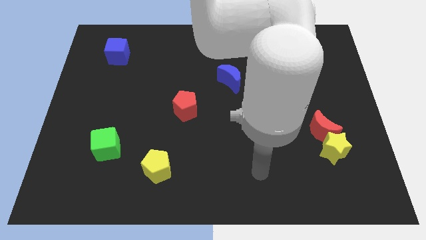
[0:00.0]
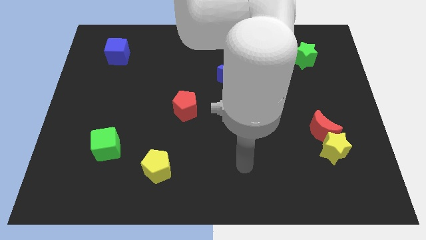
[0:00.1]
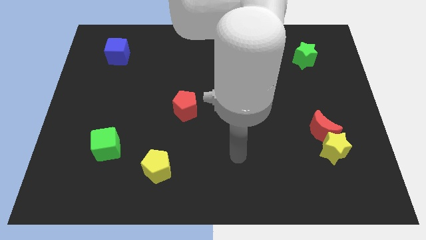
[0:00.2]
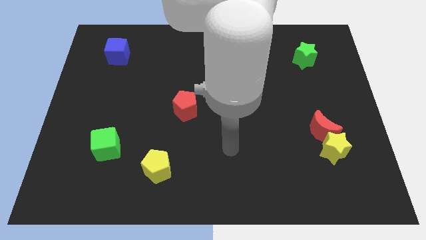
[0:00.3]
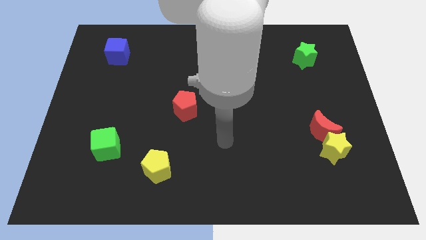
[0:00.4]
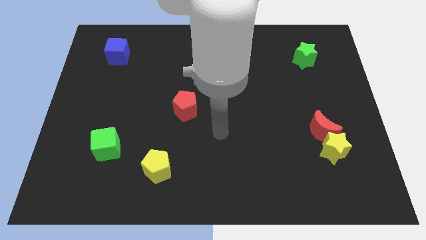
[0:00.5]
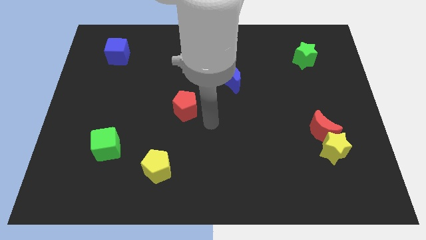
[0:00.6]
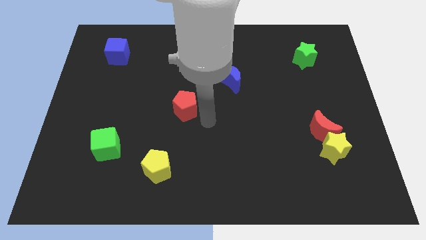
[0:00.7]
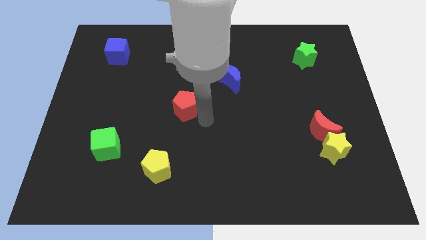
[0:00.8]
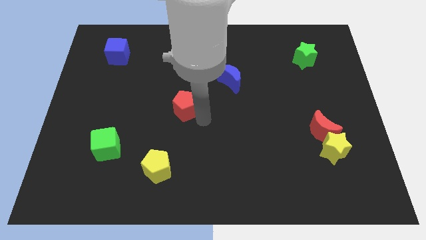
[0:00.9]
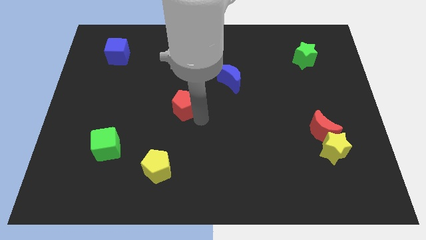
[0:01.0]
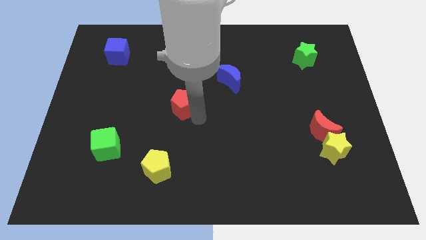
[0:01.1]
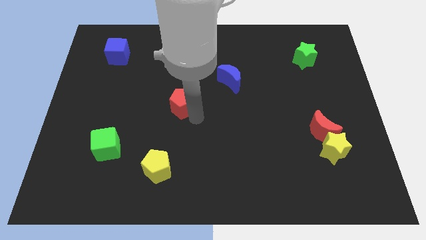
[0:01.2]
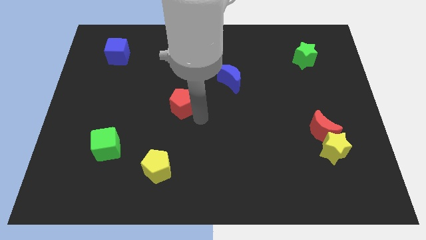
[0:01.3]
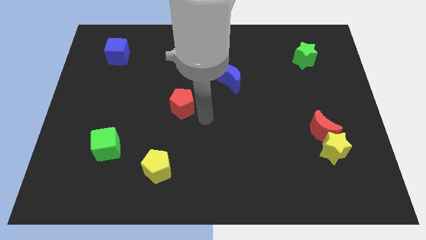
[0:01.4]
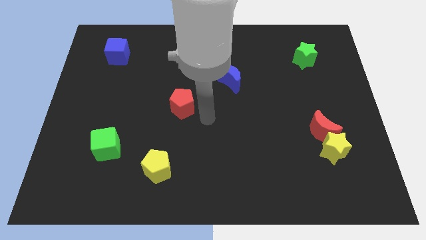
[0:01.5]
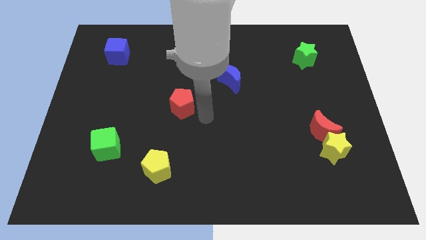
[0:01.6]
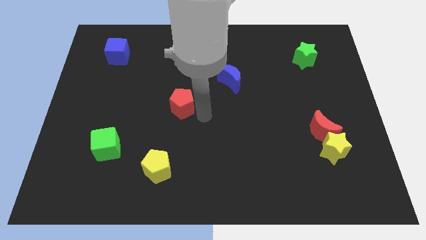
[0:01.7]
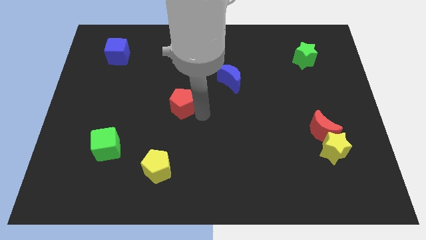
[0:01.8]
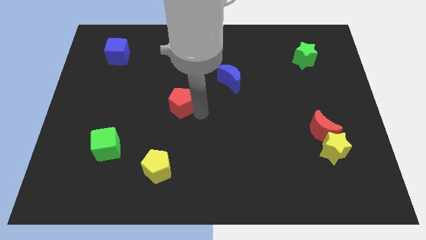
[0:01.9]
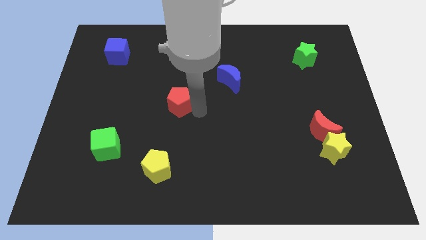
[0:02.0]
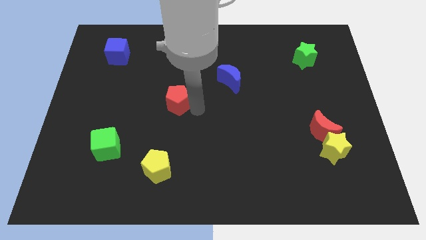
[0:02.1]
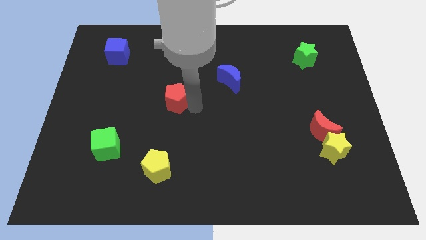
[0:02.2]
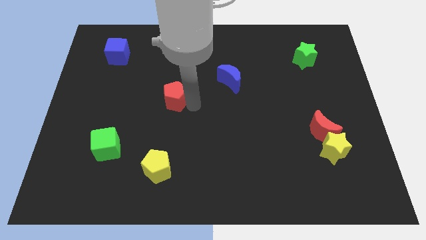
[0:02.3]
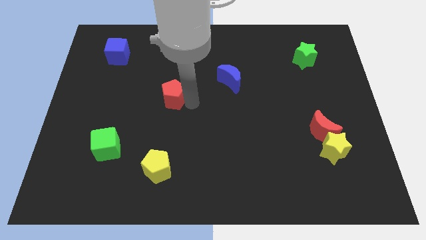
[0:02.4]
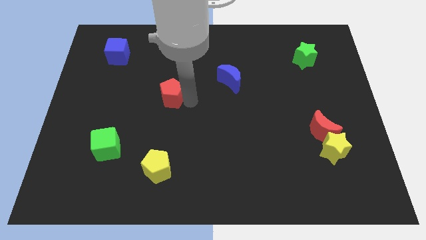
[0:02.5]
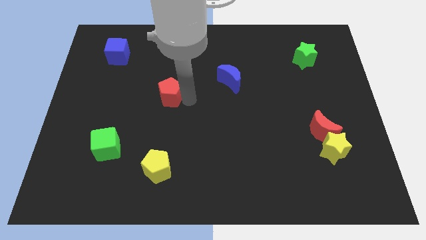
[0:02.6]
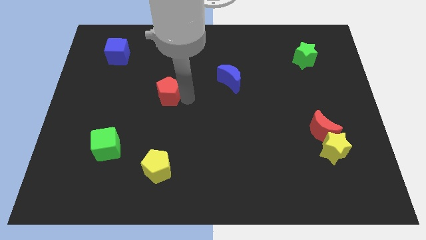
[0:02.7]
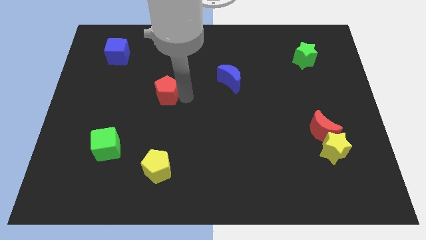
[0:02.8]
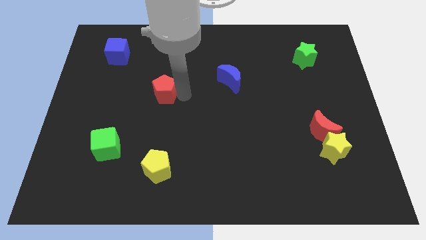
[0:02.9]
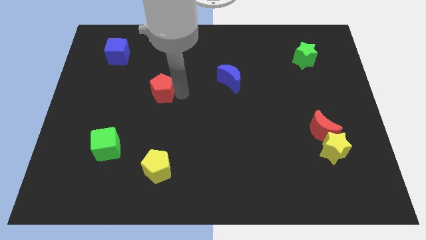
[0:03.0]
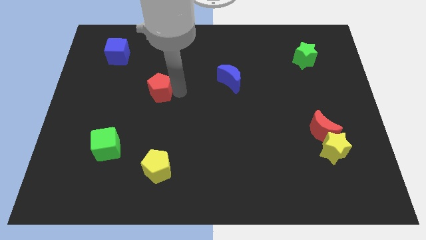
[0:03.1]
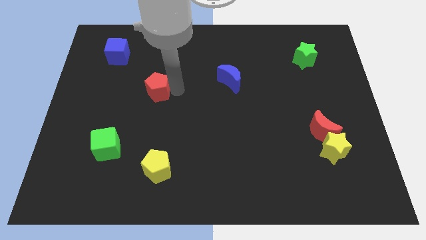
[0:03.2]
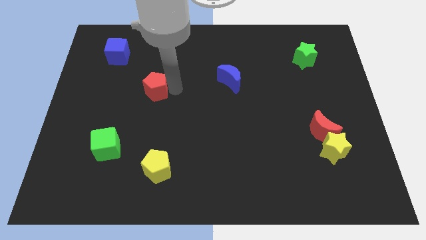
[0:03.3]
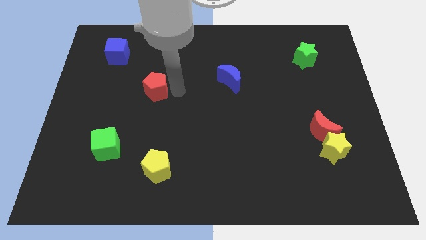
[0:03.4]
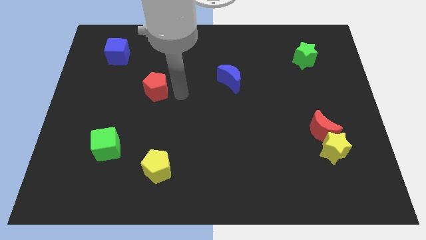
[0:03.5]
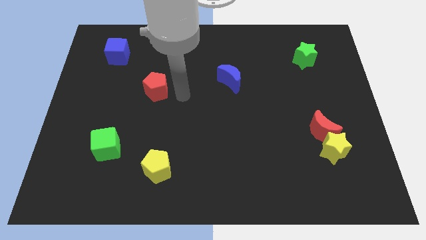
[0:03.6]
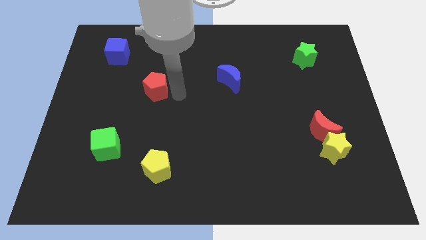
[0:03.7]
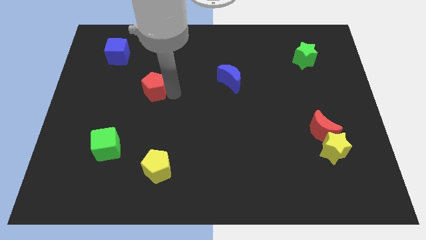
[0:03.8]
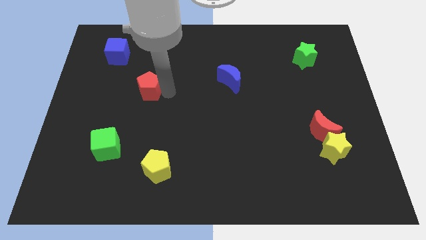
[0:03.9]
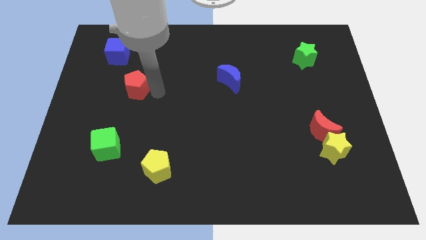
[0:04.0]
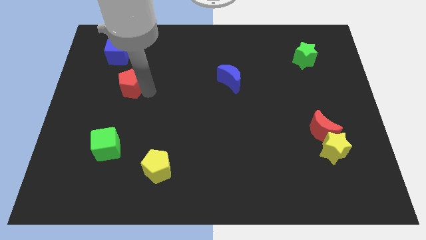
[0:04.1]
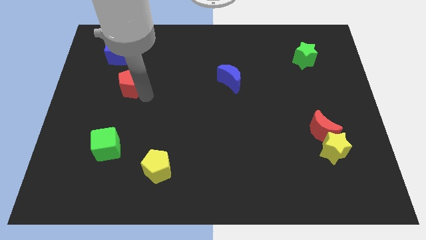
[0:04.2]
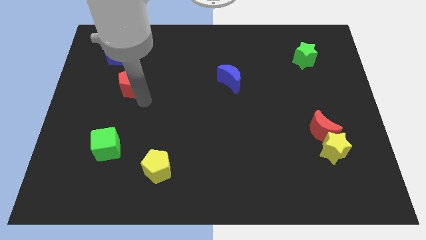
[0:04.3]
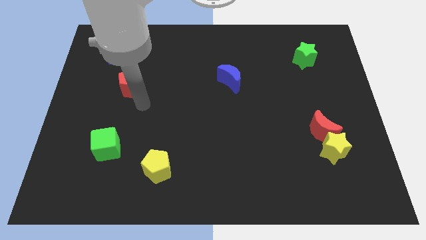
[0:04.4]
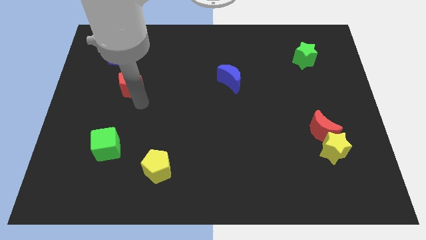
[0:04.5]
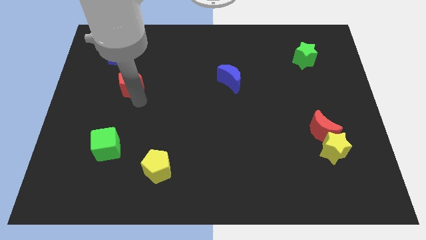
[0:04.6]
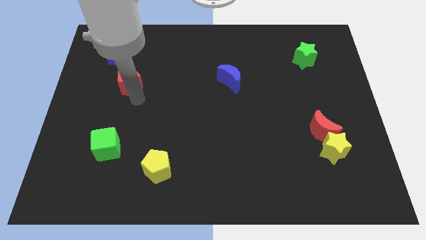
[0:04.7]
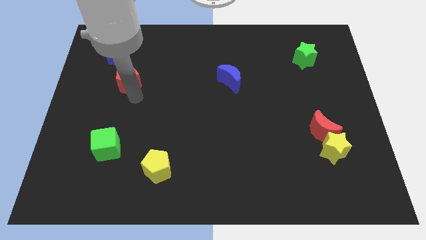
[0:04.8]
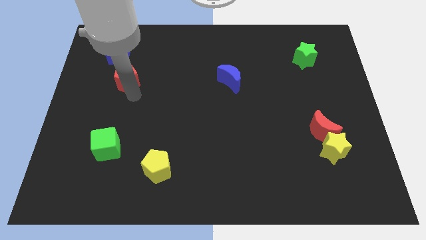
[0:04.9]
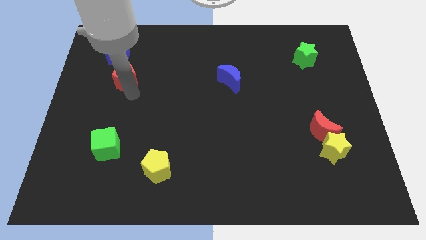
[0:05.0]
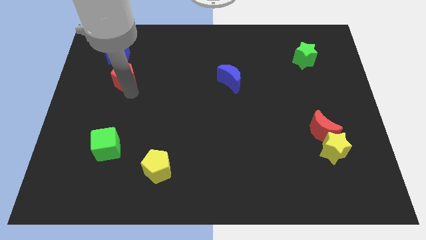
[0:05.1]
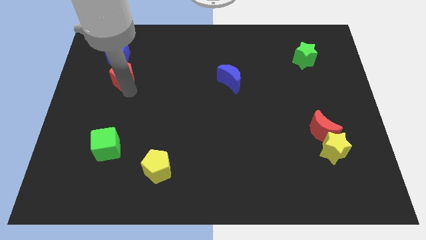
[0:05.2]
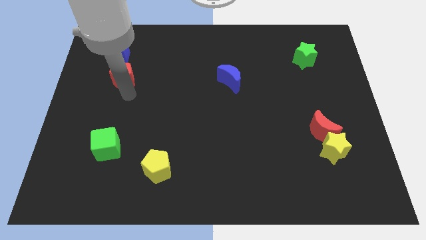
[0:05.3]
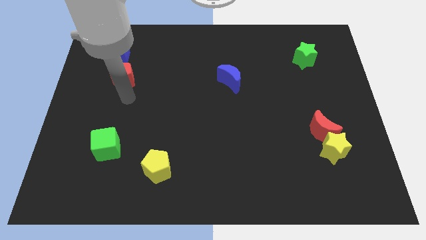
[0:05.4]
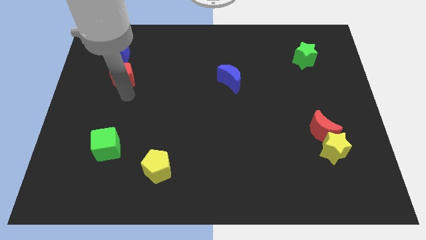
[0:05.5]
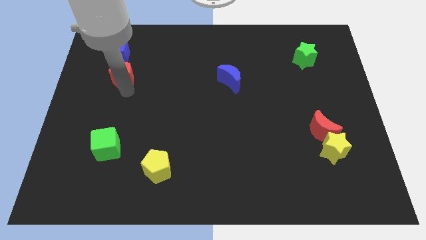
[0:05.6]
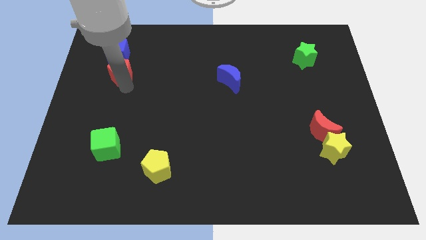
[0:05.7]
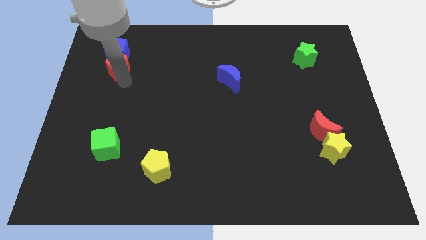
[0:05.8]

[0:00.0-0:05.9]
slide the red pentagon next to the blue cube

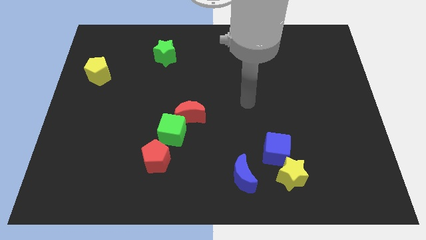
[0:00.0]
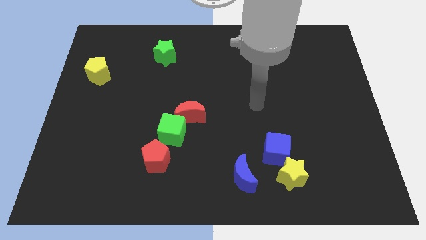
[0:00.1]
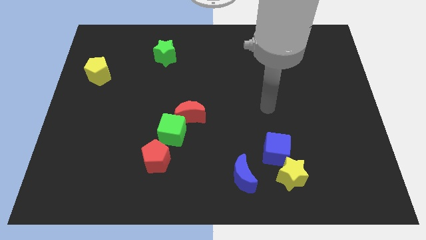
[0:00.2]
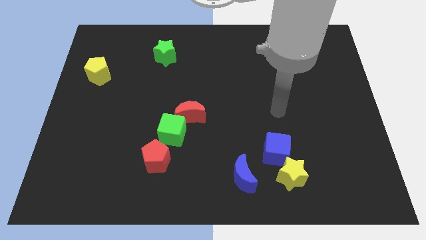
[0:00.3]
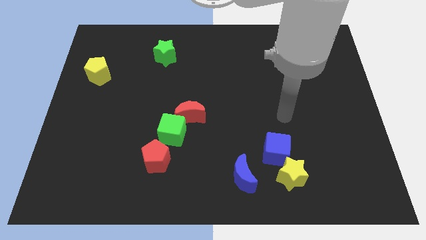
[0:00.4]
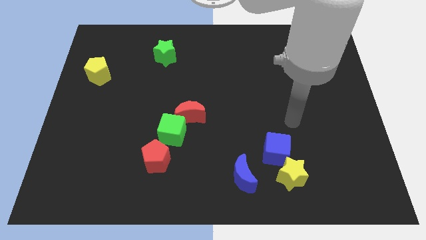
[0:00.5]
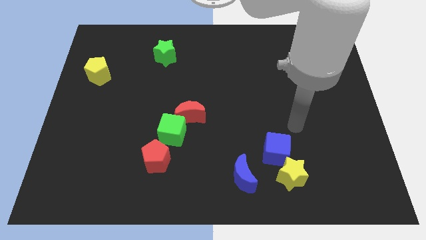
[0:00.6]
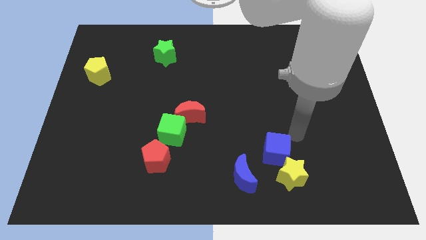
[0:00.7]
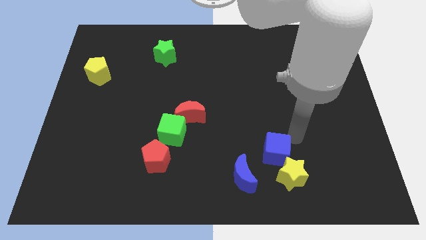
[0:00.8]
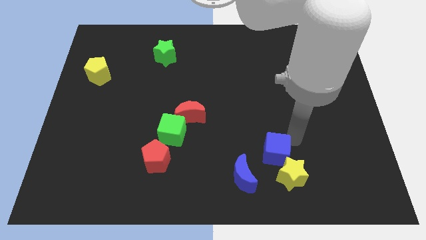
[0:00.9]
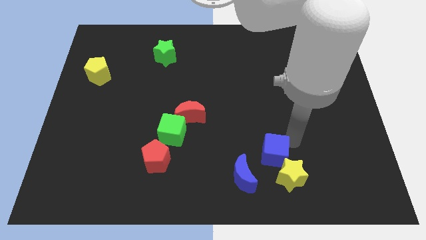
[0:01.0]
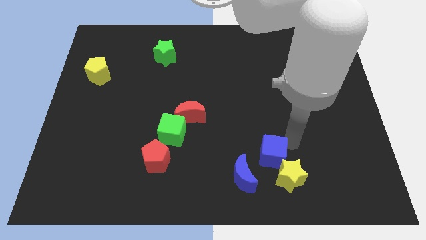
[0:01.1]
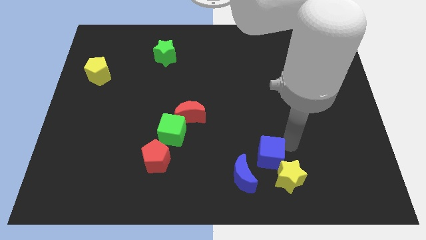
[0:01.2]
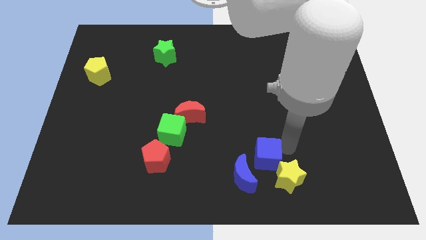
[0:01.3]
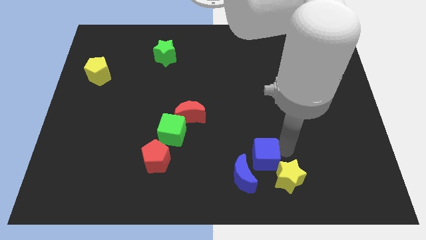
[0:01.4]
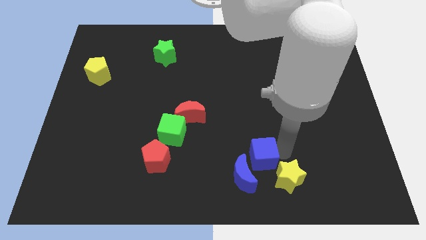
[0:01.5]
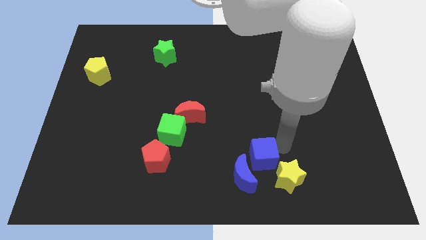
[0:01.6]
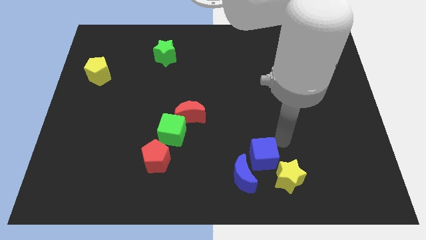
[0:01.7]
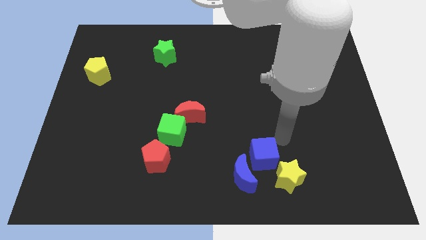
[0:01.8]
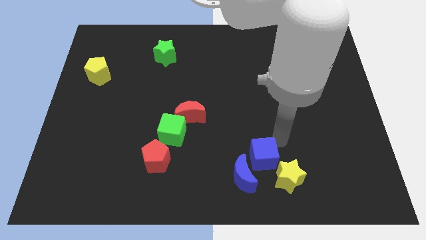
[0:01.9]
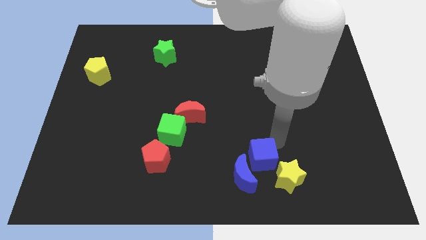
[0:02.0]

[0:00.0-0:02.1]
slide the blue cube towards the blue moon
